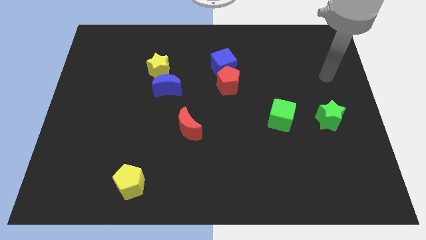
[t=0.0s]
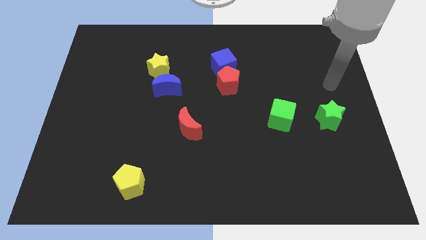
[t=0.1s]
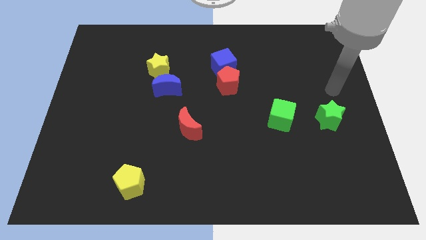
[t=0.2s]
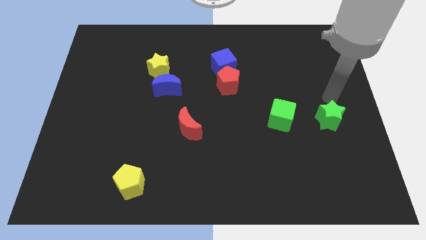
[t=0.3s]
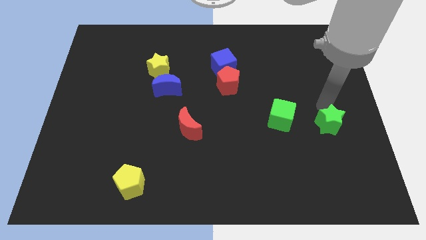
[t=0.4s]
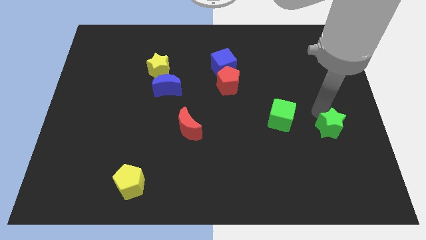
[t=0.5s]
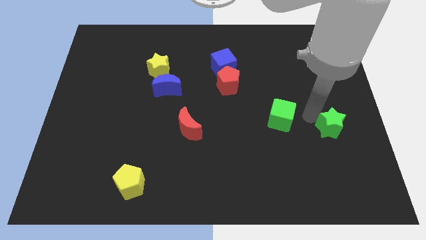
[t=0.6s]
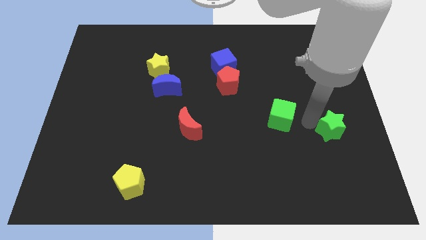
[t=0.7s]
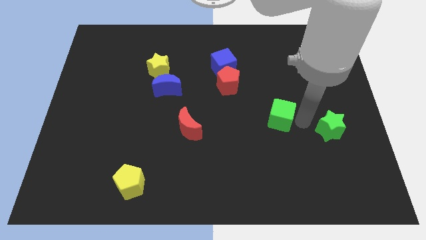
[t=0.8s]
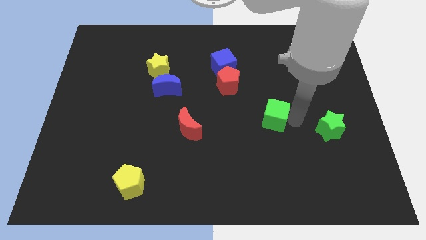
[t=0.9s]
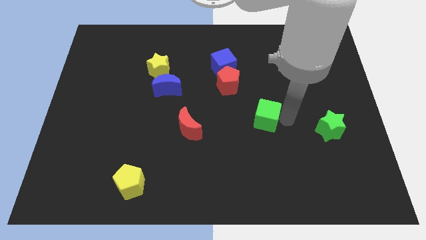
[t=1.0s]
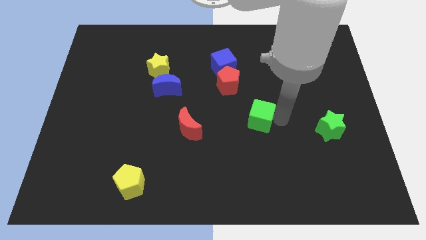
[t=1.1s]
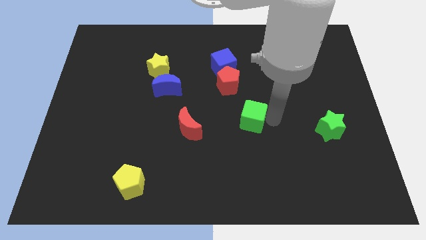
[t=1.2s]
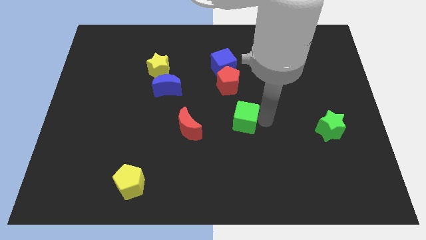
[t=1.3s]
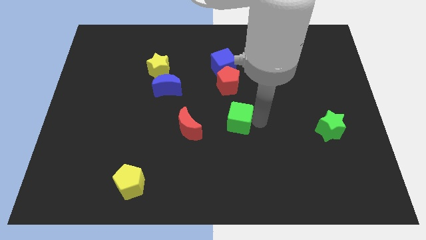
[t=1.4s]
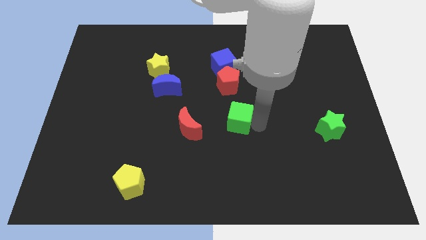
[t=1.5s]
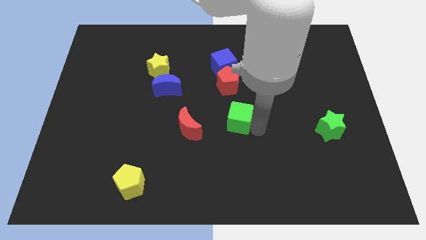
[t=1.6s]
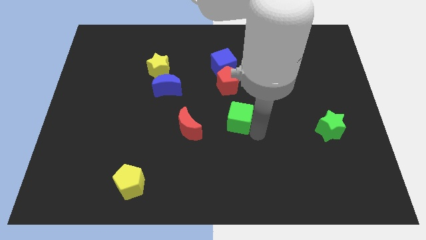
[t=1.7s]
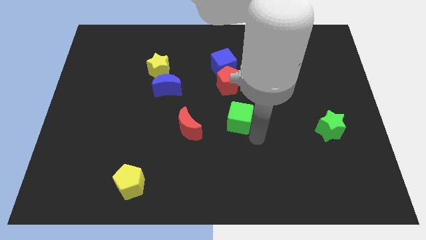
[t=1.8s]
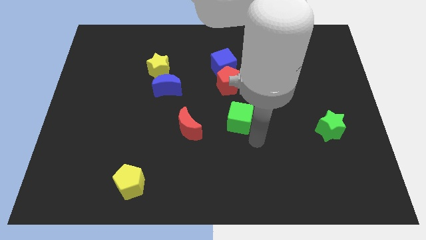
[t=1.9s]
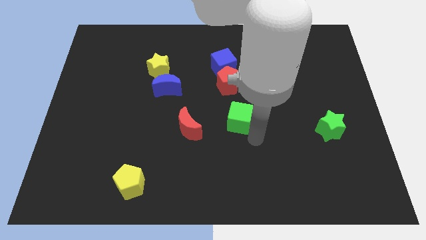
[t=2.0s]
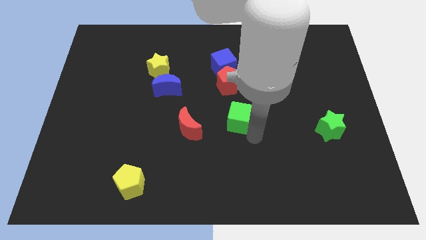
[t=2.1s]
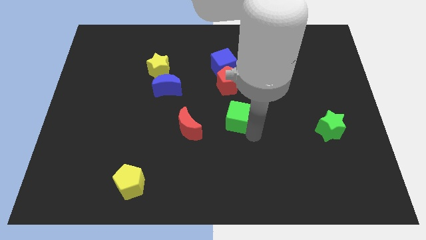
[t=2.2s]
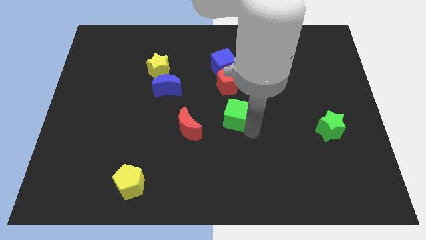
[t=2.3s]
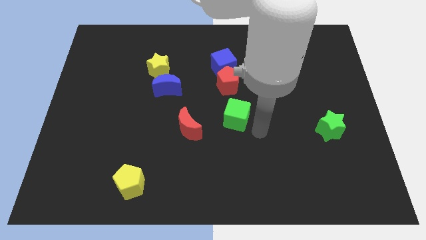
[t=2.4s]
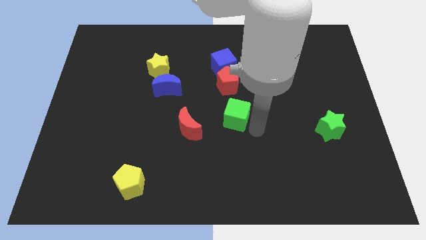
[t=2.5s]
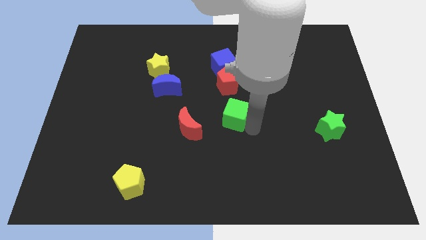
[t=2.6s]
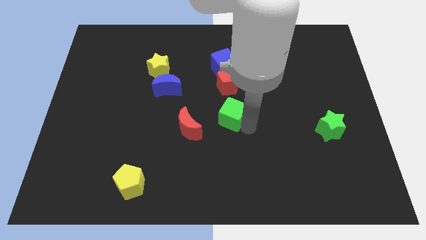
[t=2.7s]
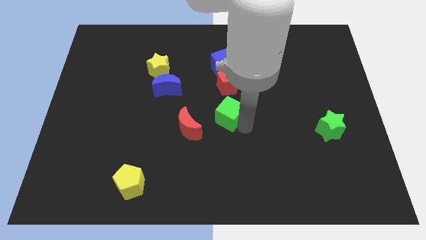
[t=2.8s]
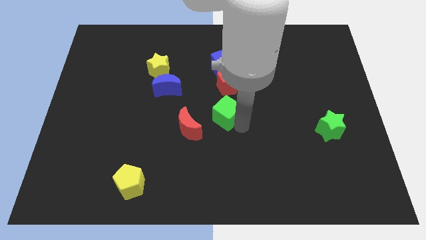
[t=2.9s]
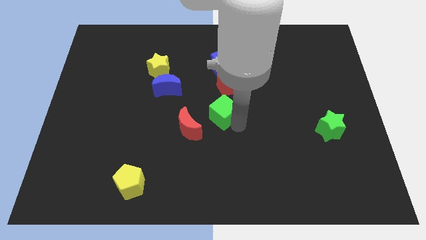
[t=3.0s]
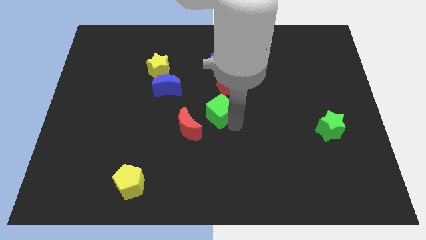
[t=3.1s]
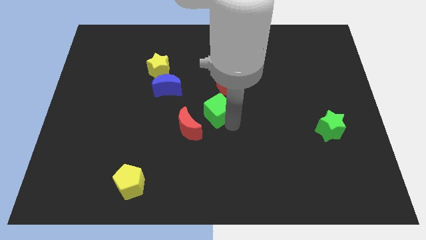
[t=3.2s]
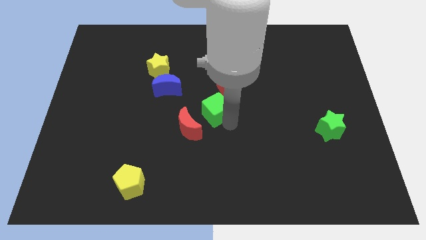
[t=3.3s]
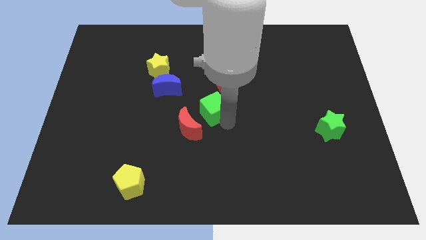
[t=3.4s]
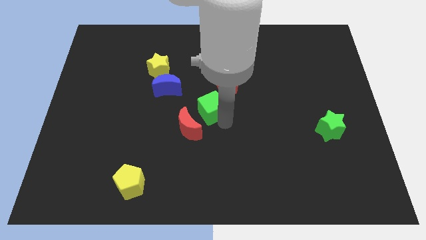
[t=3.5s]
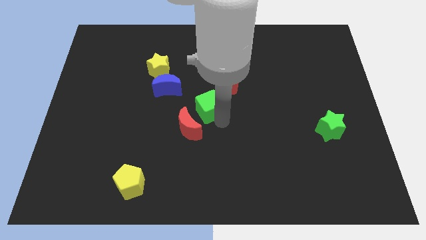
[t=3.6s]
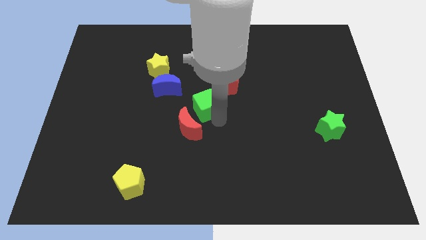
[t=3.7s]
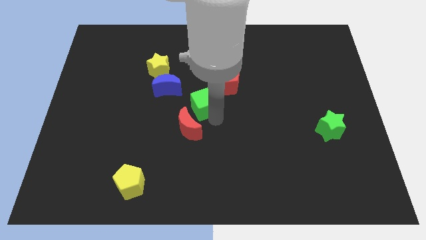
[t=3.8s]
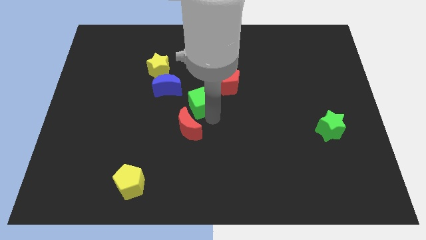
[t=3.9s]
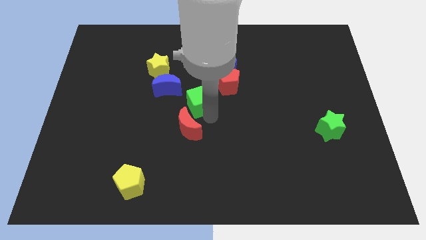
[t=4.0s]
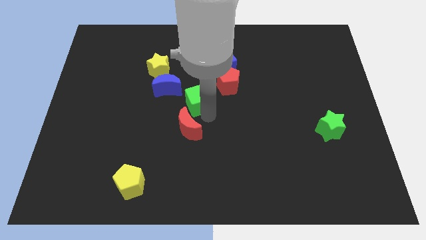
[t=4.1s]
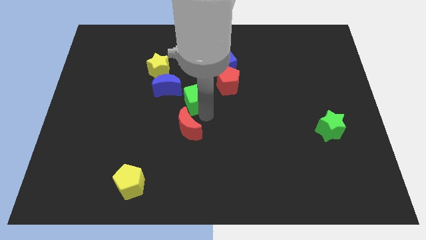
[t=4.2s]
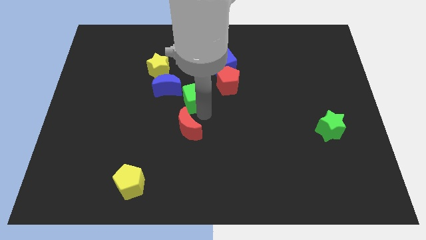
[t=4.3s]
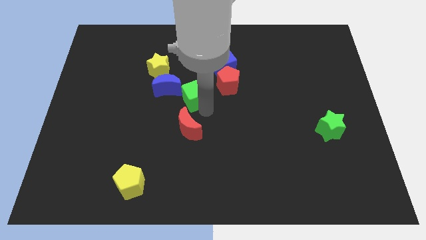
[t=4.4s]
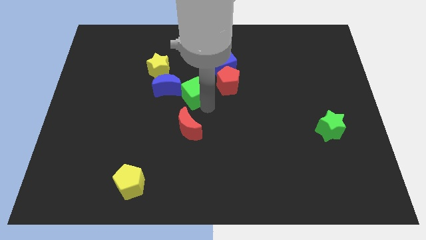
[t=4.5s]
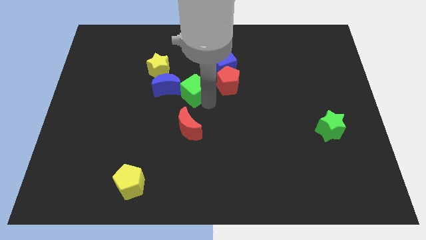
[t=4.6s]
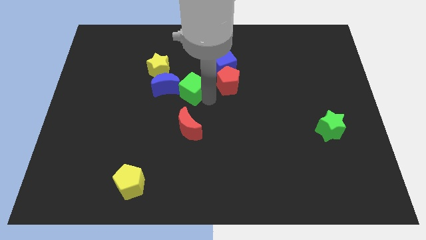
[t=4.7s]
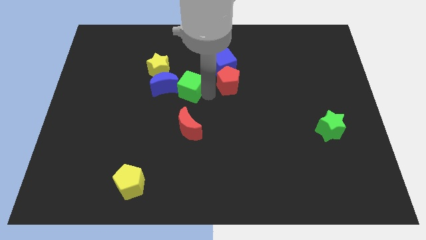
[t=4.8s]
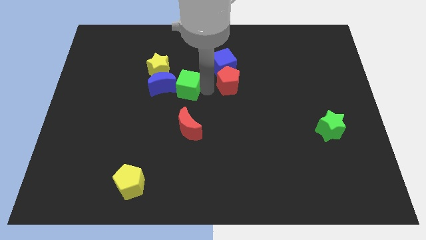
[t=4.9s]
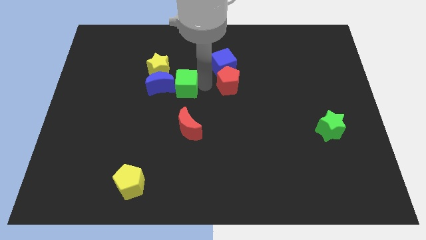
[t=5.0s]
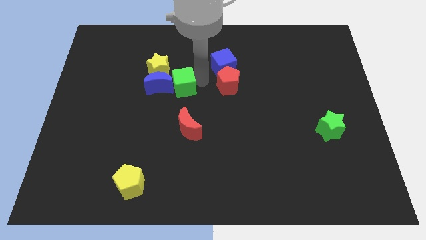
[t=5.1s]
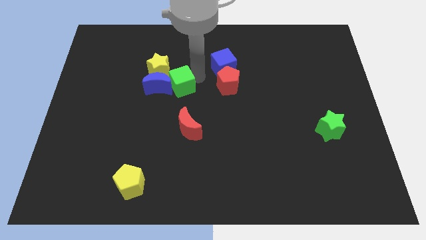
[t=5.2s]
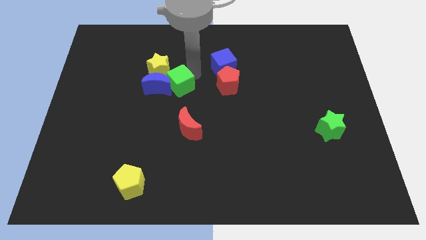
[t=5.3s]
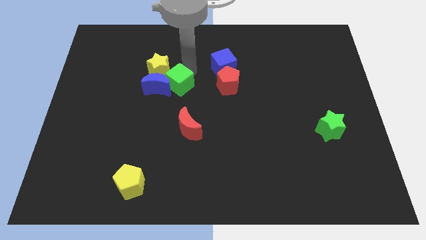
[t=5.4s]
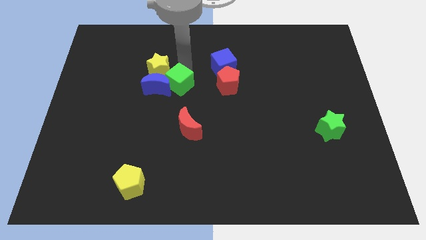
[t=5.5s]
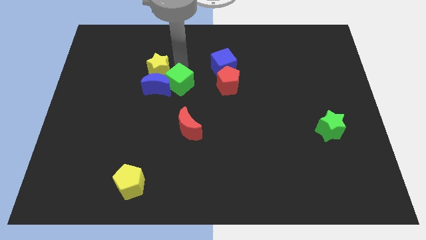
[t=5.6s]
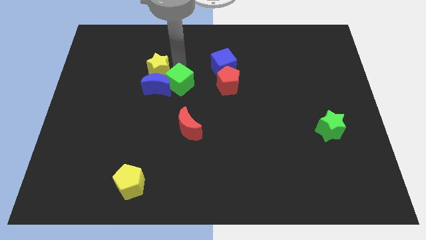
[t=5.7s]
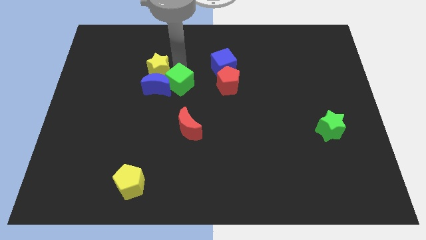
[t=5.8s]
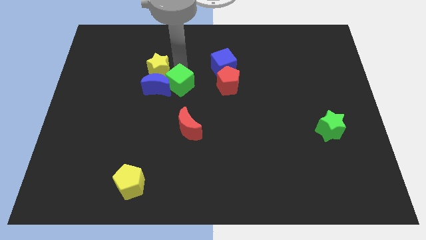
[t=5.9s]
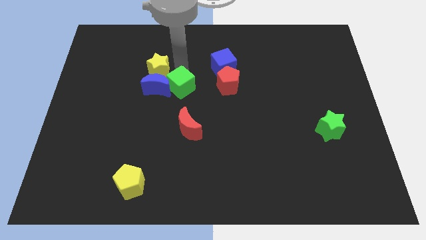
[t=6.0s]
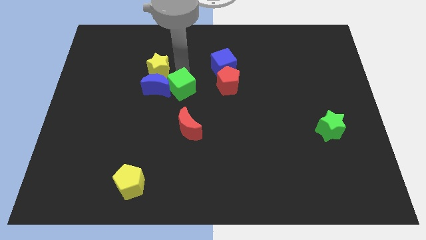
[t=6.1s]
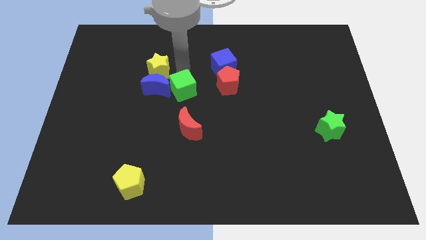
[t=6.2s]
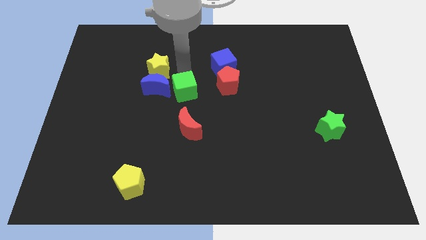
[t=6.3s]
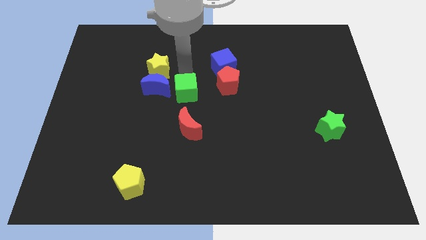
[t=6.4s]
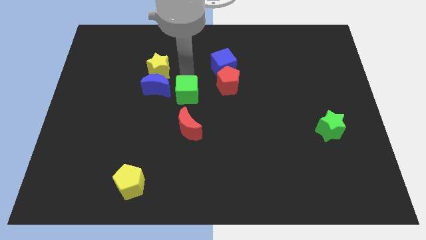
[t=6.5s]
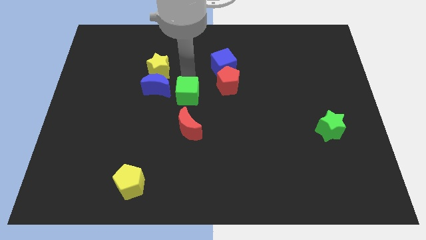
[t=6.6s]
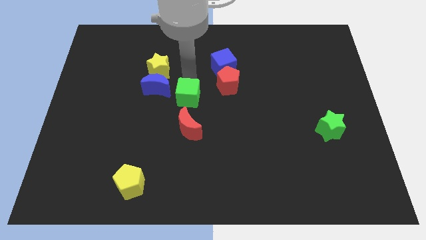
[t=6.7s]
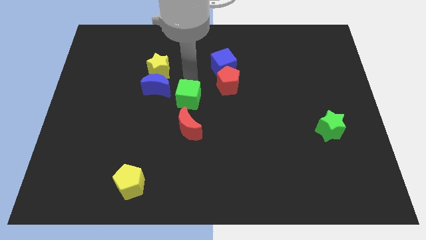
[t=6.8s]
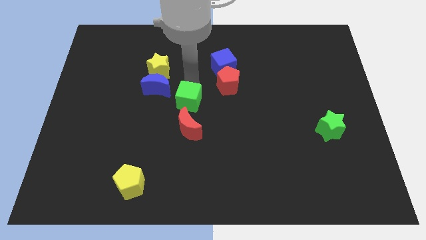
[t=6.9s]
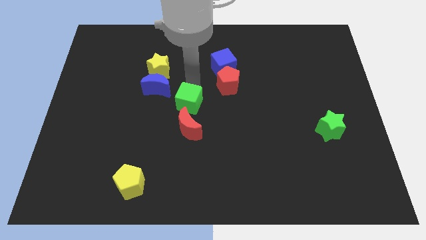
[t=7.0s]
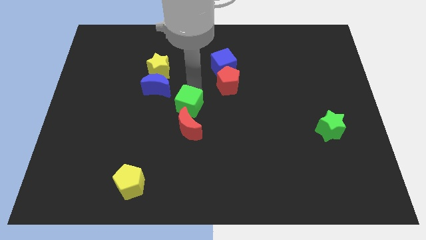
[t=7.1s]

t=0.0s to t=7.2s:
push the green cube diagonally up and to the left of the red moon
